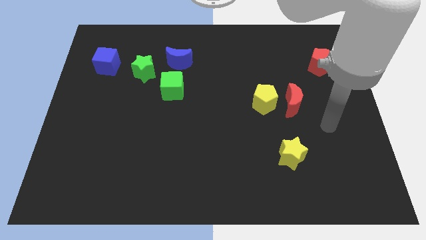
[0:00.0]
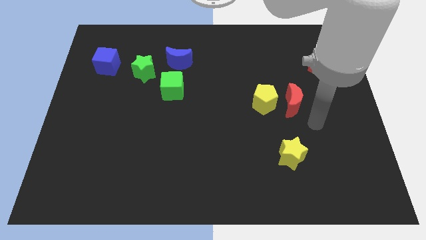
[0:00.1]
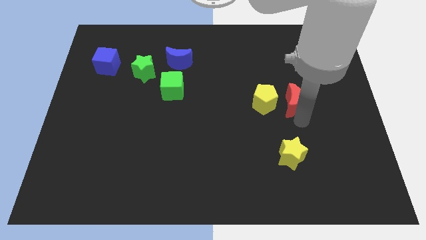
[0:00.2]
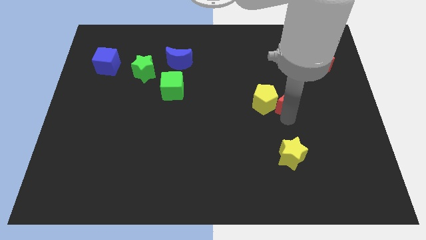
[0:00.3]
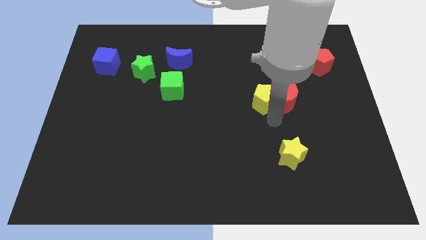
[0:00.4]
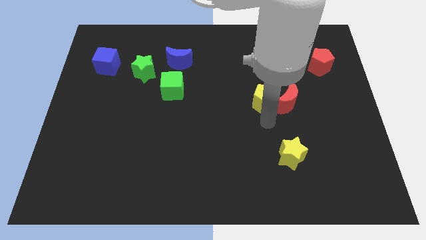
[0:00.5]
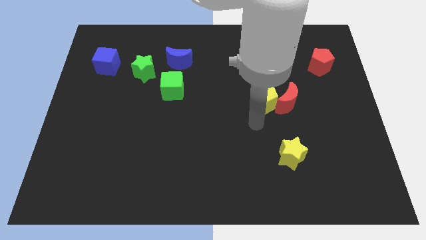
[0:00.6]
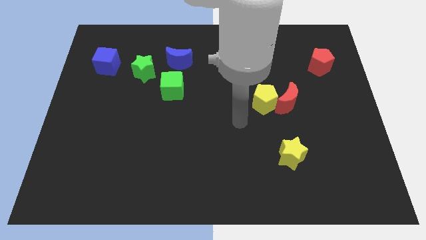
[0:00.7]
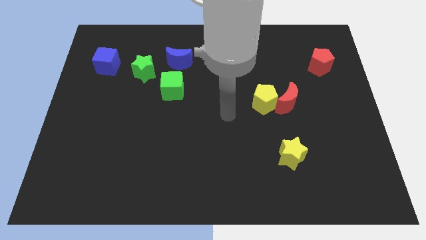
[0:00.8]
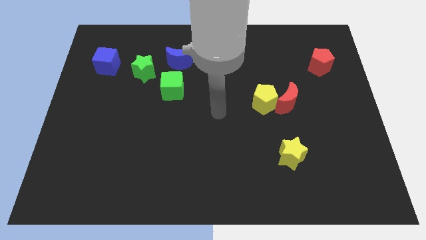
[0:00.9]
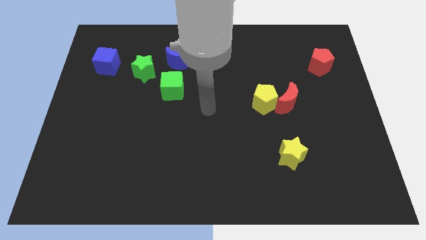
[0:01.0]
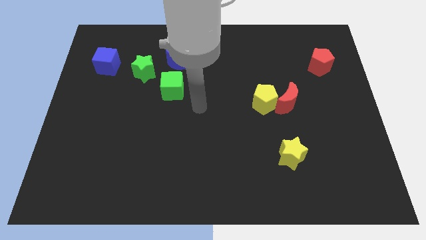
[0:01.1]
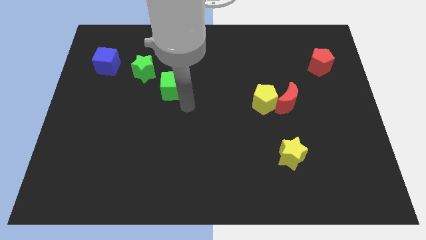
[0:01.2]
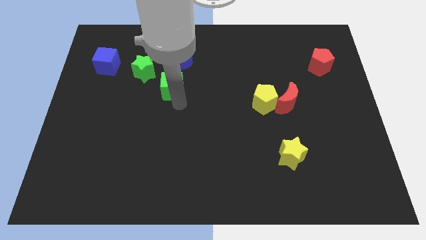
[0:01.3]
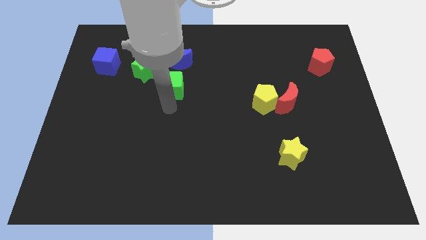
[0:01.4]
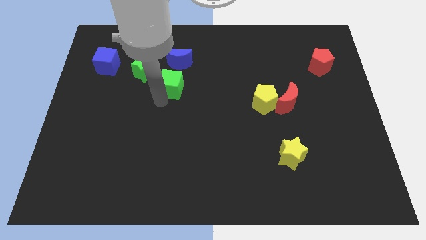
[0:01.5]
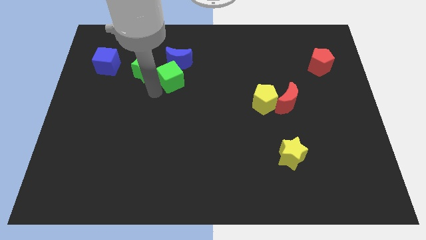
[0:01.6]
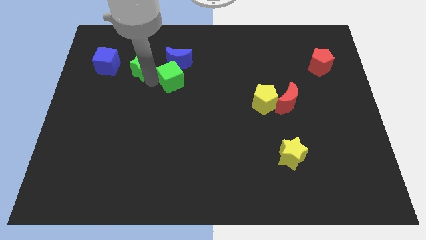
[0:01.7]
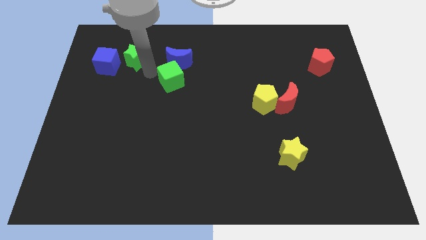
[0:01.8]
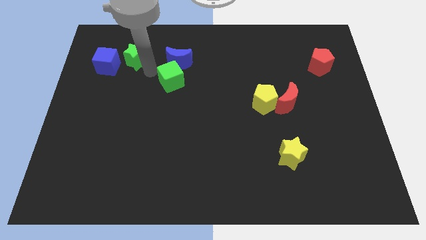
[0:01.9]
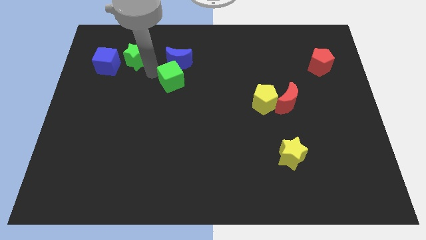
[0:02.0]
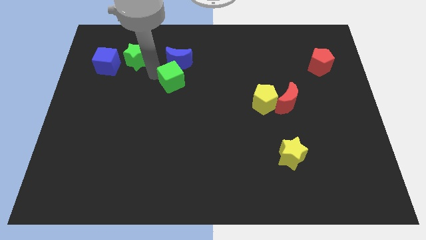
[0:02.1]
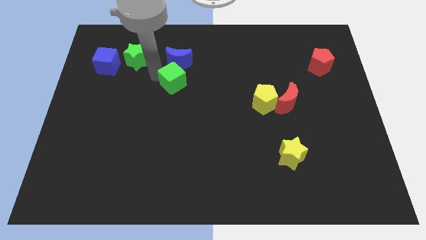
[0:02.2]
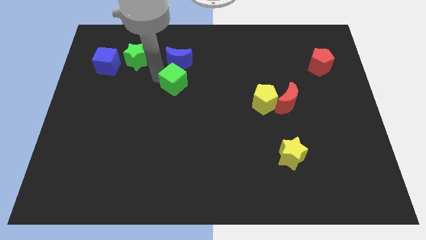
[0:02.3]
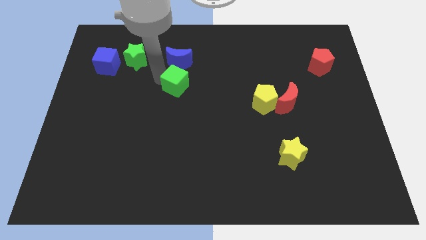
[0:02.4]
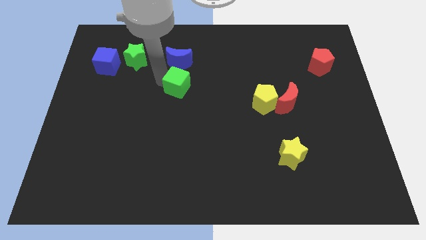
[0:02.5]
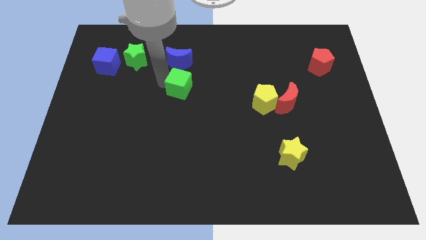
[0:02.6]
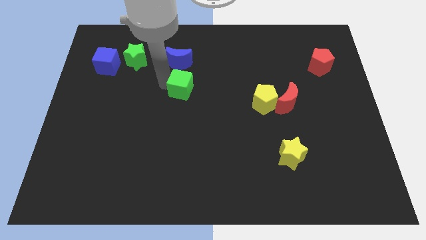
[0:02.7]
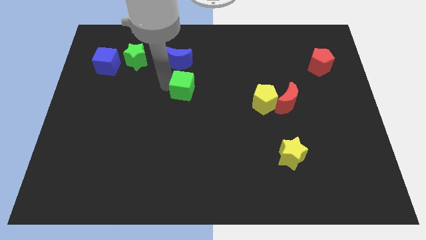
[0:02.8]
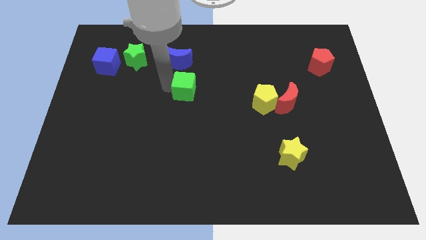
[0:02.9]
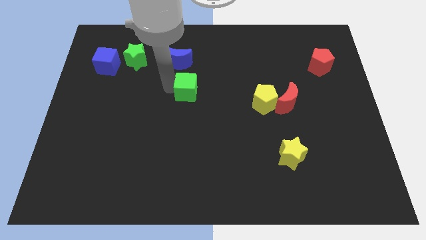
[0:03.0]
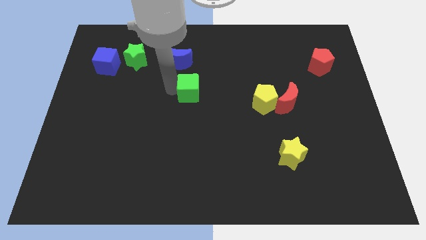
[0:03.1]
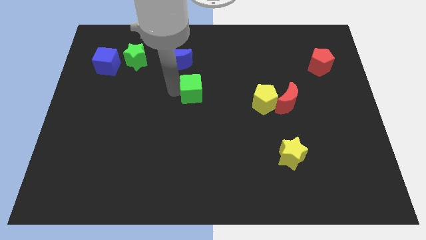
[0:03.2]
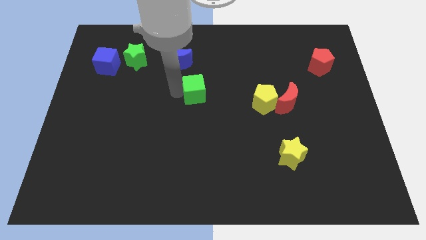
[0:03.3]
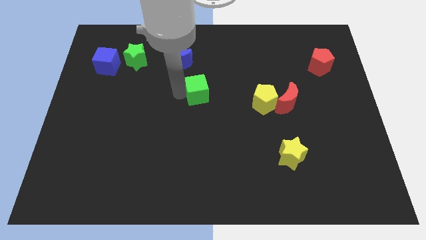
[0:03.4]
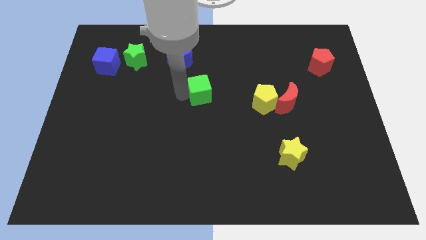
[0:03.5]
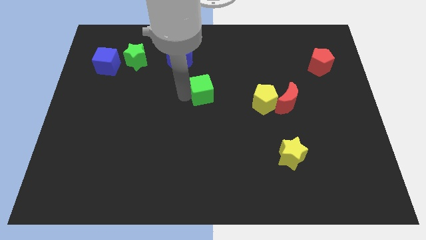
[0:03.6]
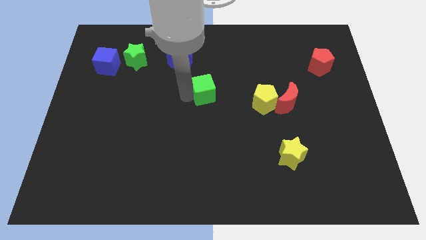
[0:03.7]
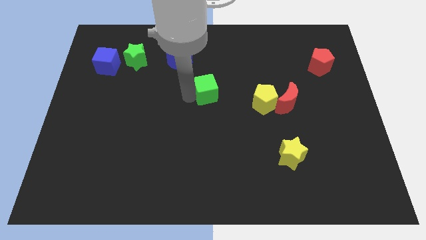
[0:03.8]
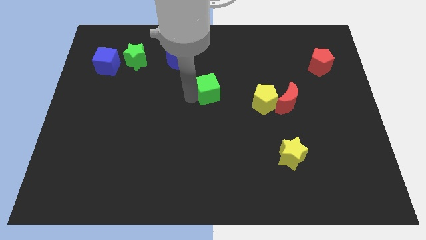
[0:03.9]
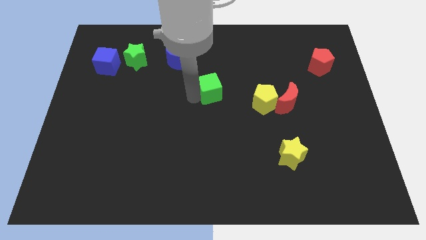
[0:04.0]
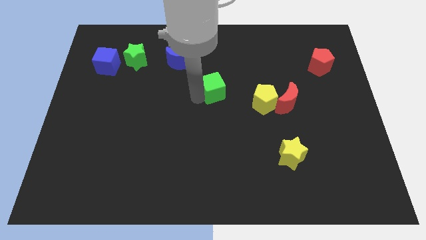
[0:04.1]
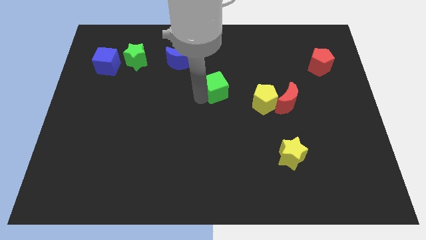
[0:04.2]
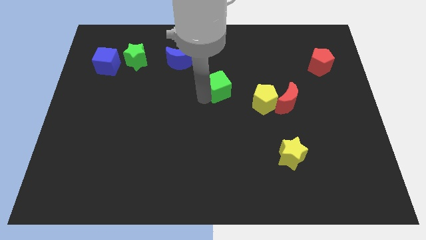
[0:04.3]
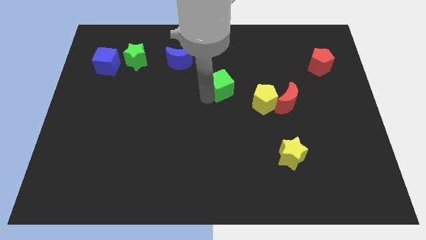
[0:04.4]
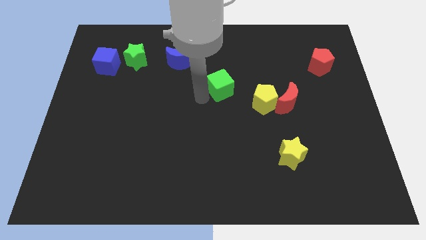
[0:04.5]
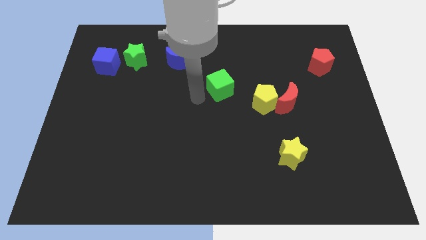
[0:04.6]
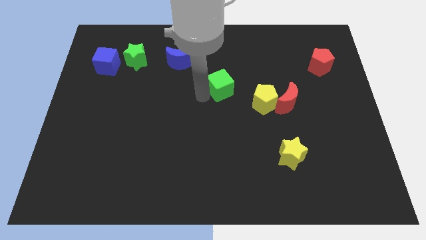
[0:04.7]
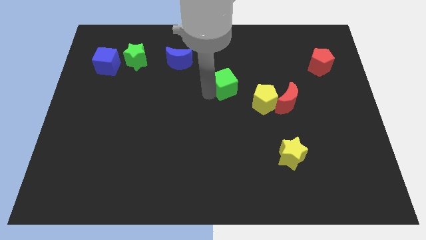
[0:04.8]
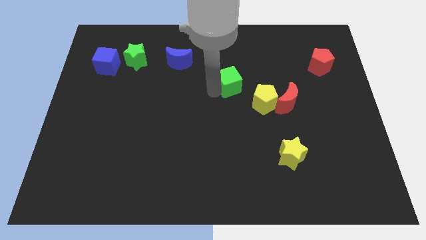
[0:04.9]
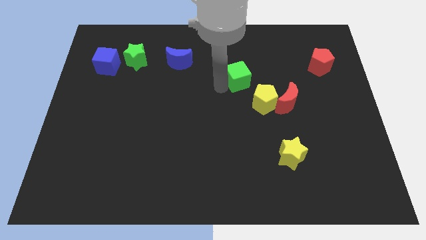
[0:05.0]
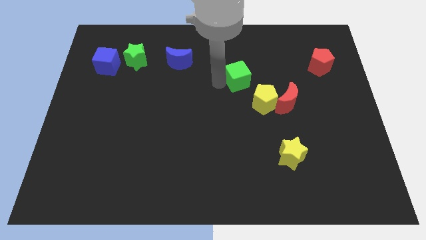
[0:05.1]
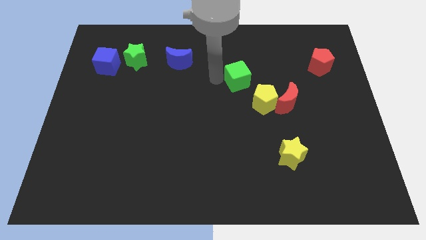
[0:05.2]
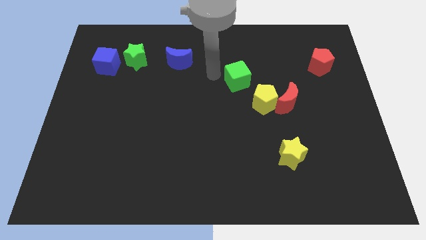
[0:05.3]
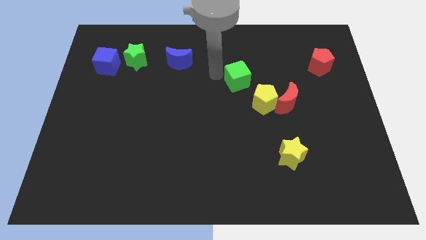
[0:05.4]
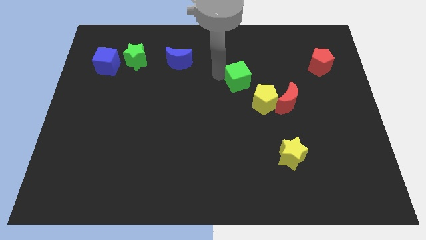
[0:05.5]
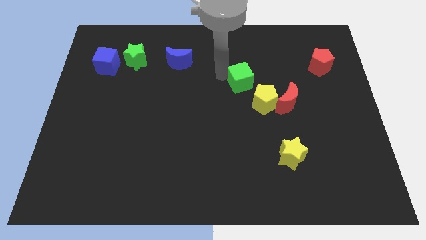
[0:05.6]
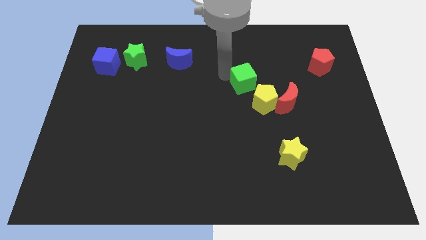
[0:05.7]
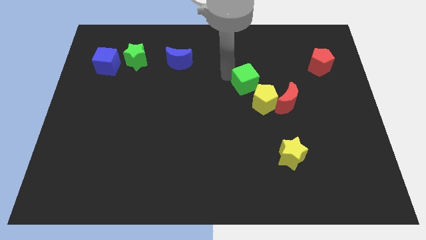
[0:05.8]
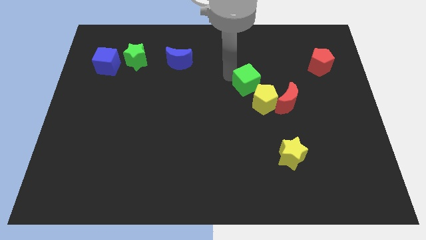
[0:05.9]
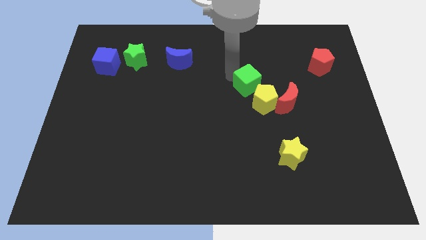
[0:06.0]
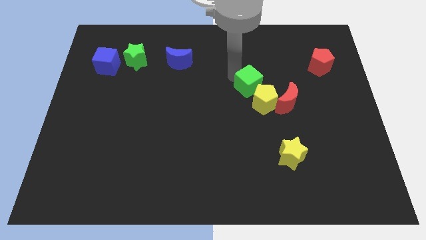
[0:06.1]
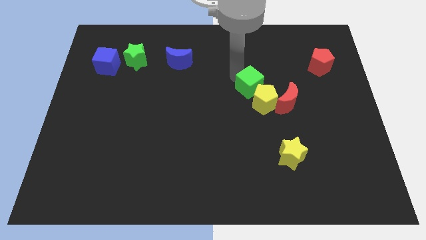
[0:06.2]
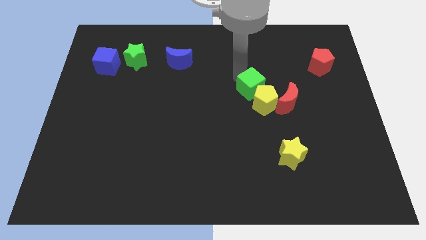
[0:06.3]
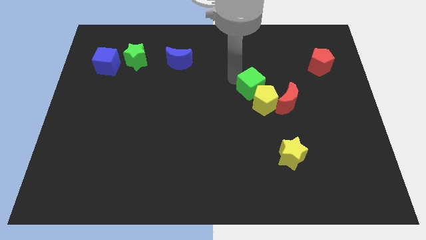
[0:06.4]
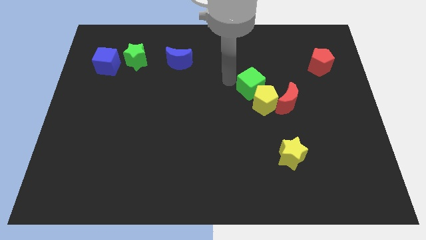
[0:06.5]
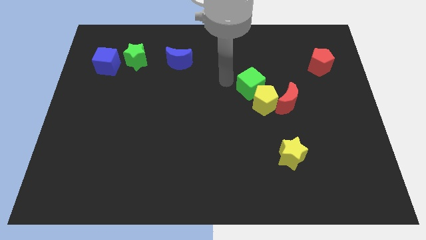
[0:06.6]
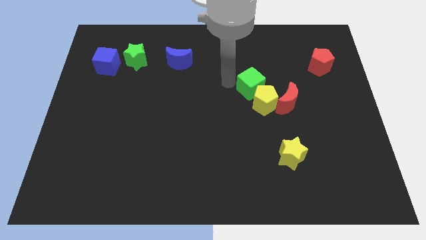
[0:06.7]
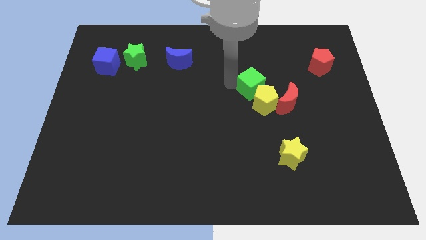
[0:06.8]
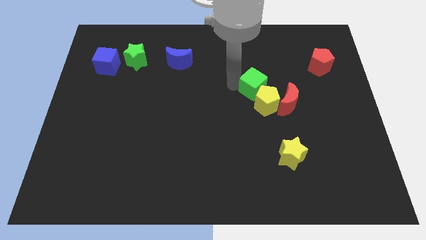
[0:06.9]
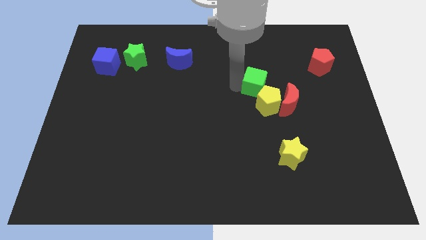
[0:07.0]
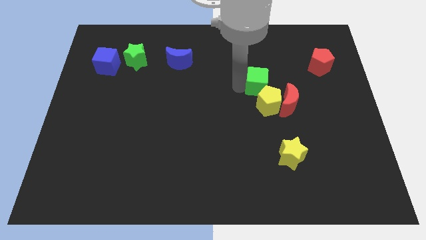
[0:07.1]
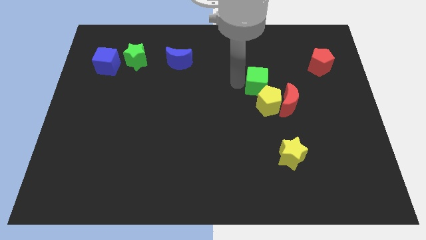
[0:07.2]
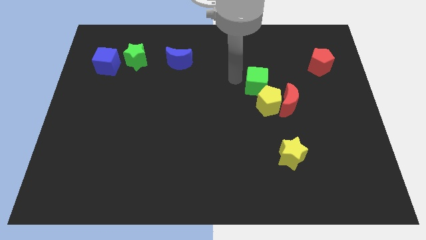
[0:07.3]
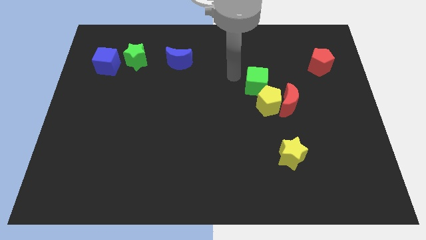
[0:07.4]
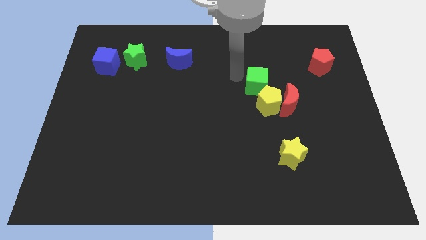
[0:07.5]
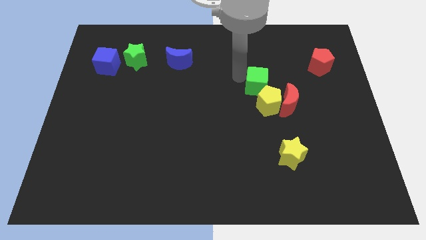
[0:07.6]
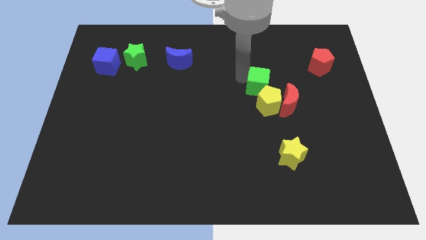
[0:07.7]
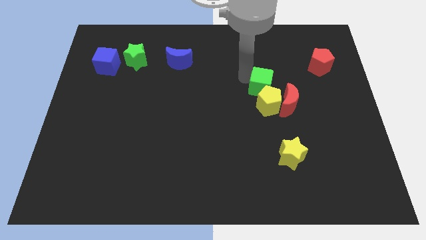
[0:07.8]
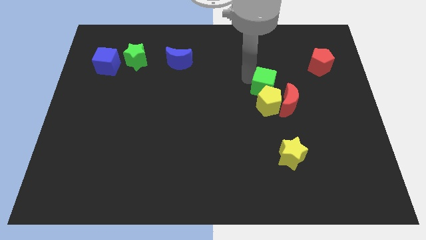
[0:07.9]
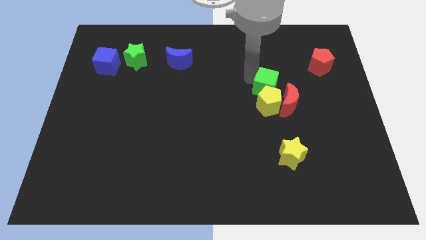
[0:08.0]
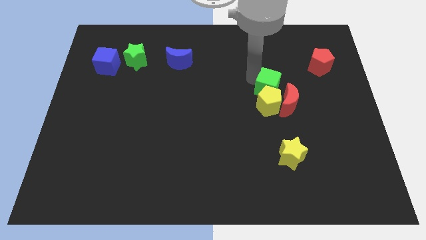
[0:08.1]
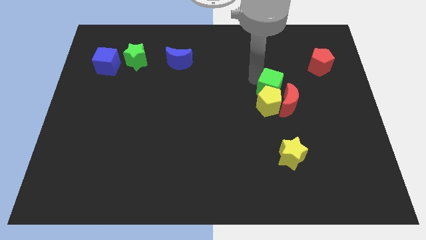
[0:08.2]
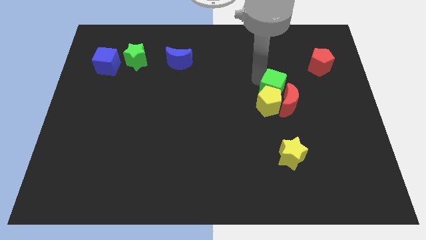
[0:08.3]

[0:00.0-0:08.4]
put the green cube towards the red moon
